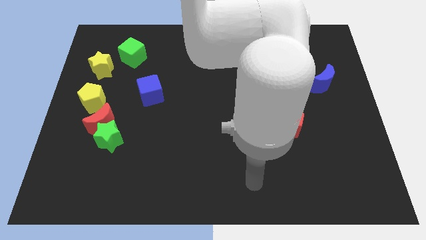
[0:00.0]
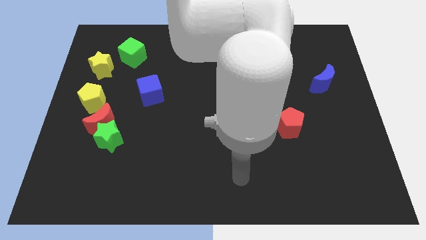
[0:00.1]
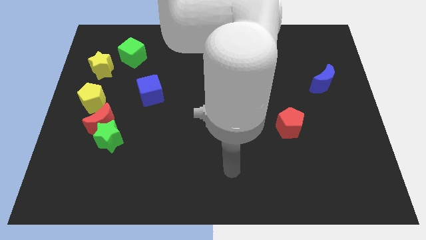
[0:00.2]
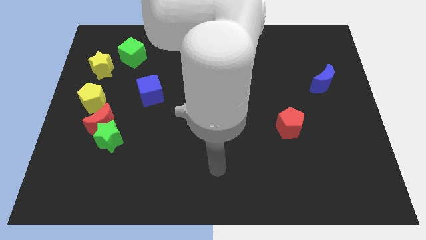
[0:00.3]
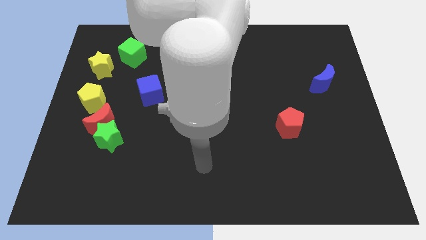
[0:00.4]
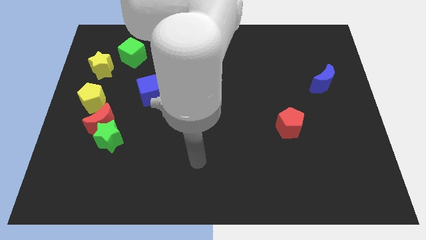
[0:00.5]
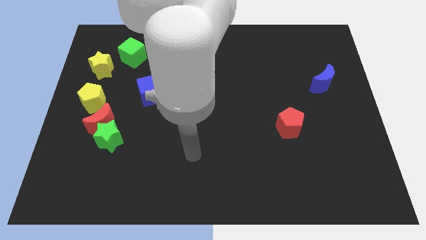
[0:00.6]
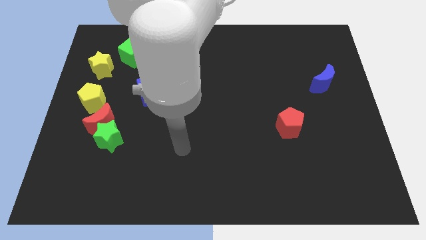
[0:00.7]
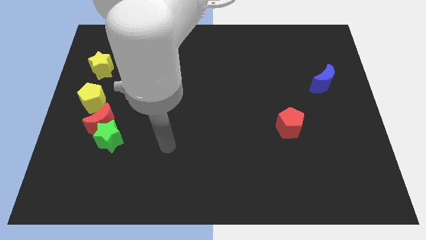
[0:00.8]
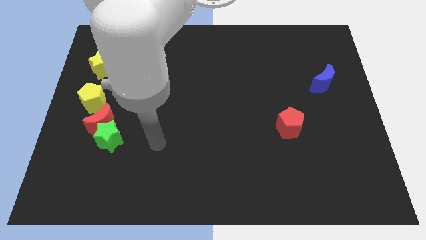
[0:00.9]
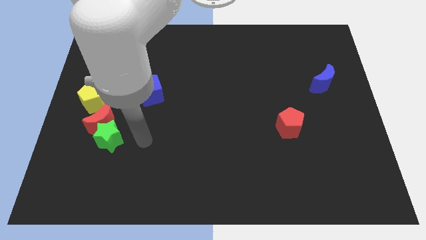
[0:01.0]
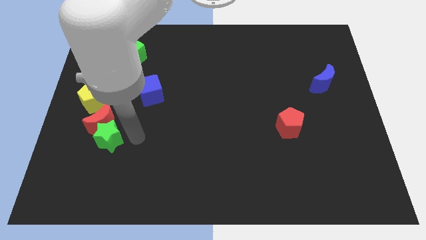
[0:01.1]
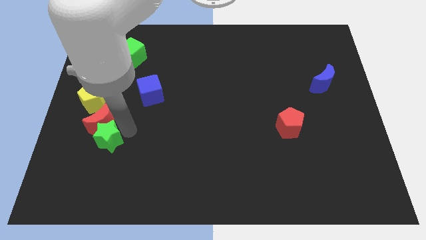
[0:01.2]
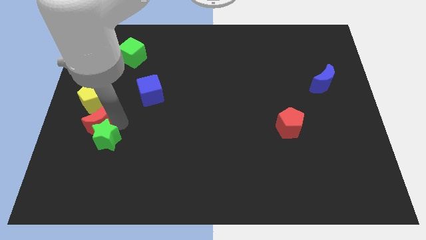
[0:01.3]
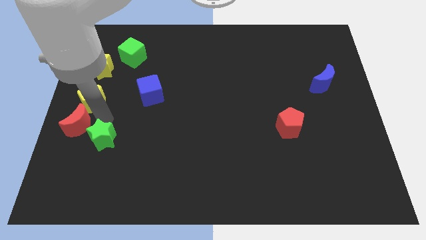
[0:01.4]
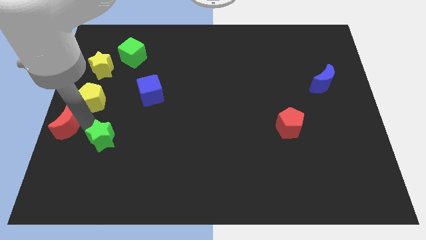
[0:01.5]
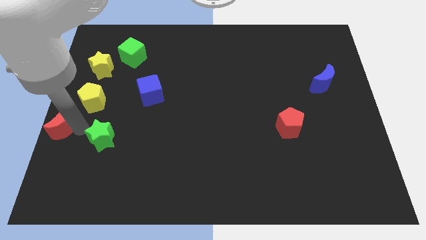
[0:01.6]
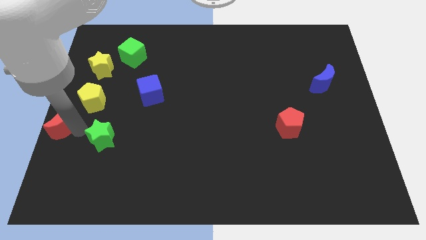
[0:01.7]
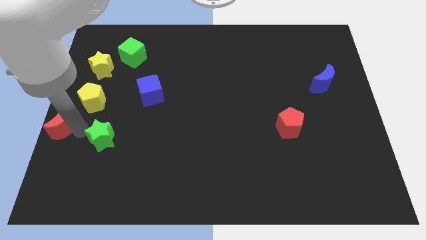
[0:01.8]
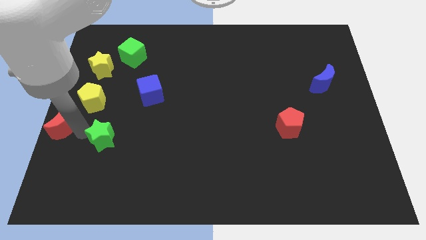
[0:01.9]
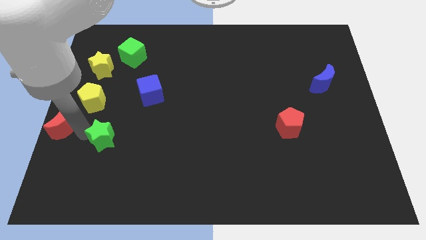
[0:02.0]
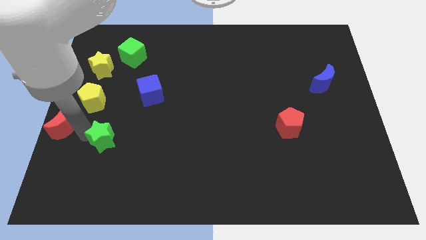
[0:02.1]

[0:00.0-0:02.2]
pull the green star apart from the red moon

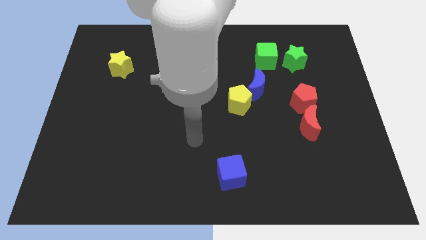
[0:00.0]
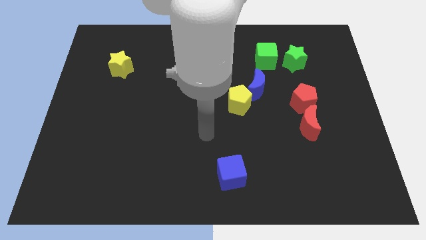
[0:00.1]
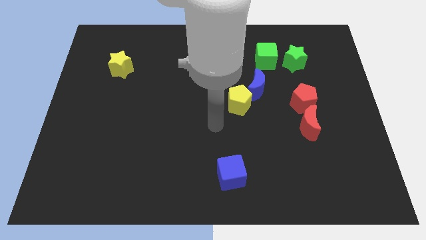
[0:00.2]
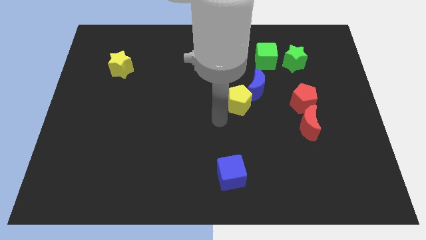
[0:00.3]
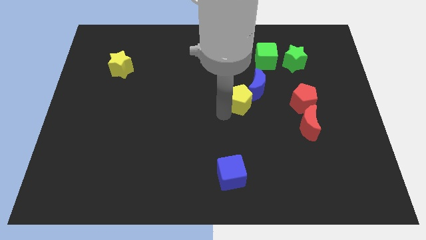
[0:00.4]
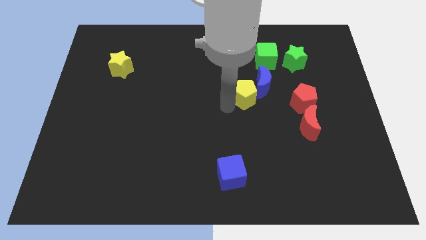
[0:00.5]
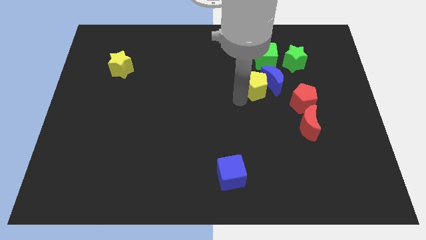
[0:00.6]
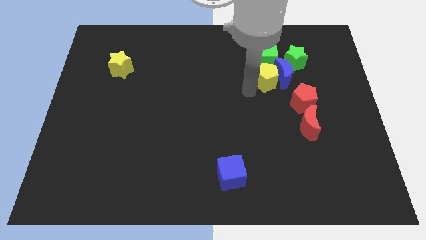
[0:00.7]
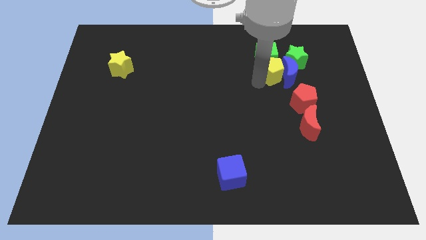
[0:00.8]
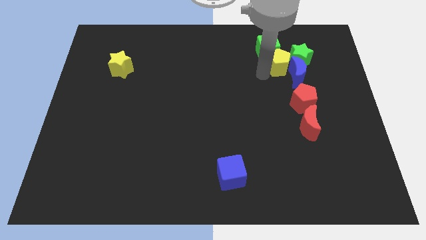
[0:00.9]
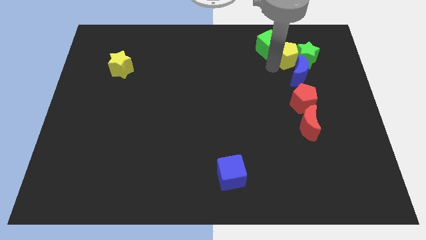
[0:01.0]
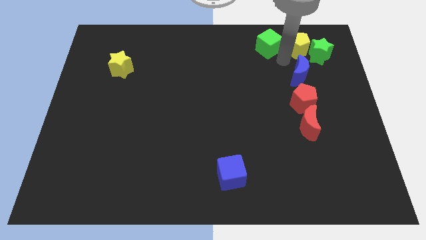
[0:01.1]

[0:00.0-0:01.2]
pull the blue moon apart from the yellow pentagon

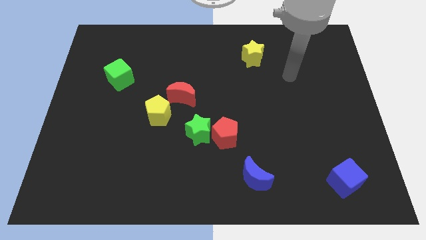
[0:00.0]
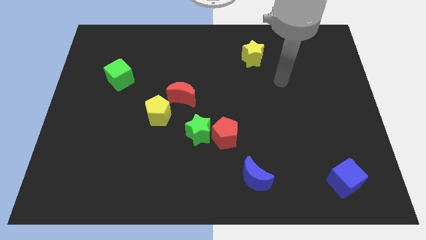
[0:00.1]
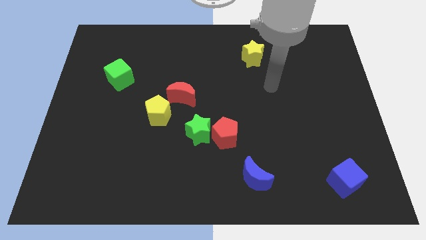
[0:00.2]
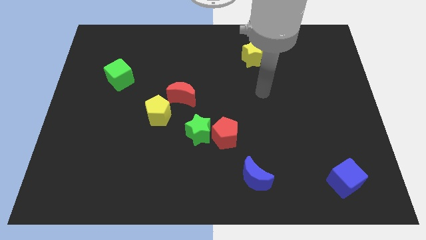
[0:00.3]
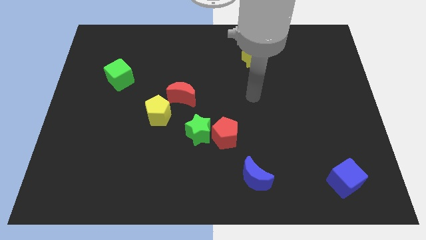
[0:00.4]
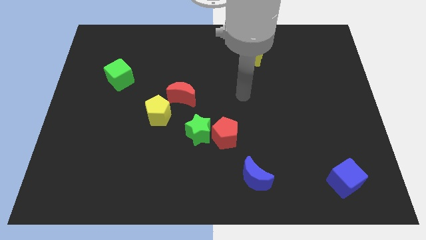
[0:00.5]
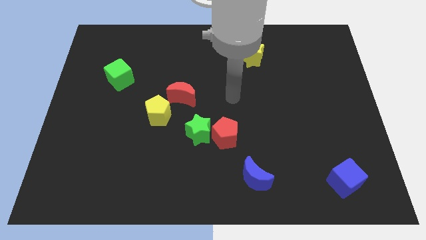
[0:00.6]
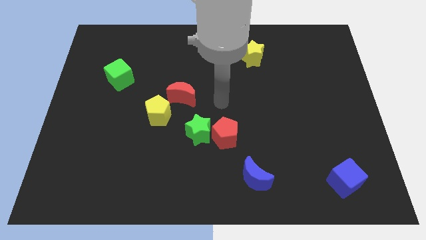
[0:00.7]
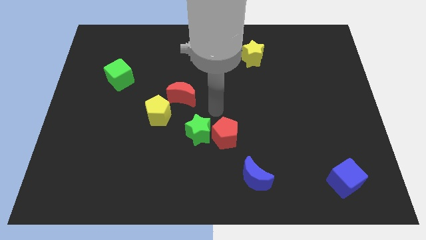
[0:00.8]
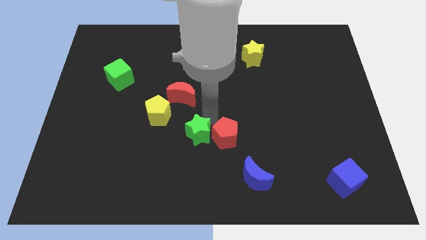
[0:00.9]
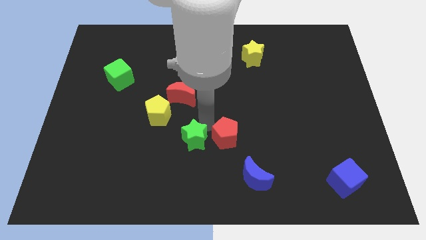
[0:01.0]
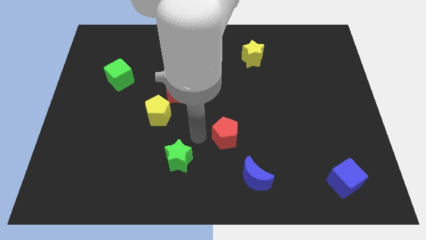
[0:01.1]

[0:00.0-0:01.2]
separate the red pentagon from the green star

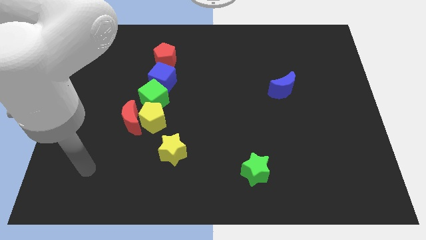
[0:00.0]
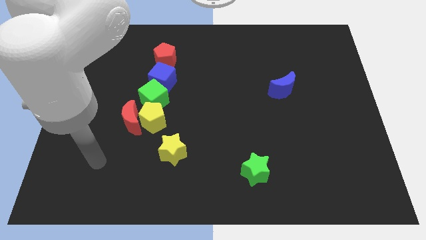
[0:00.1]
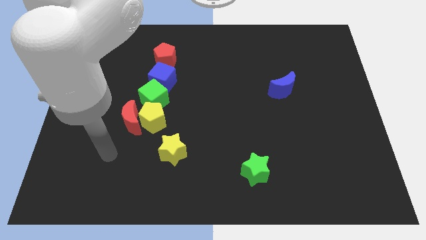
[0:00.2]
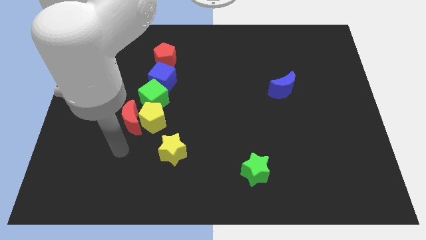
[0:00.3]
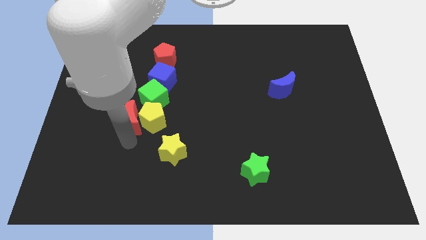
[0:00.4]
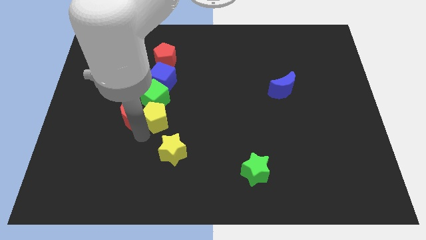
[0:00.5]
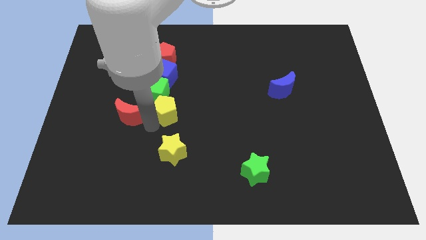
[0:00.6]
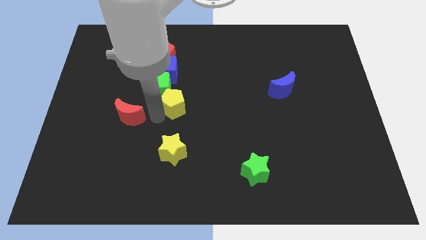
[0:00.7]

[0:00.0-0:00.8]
move the red moon away from the yellow pentagon and green cube

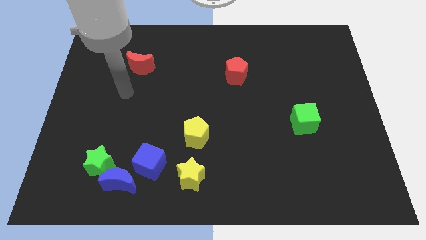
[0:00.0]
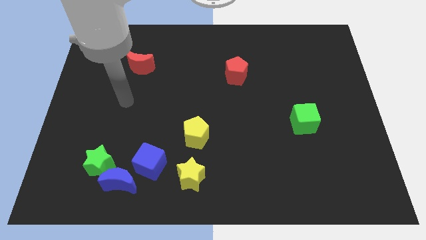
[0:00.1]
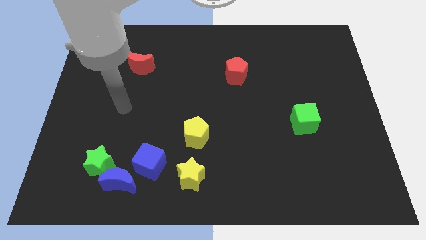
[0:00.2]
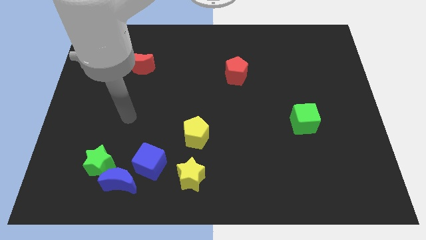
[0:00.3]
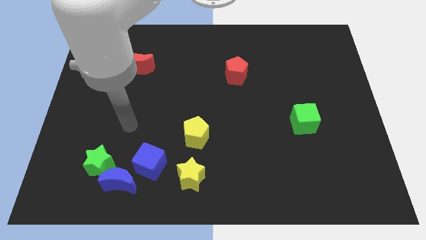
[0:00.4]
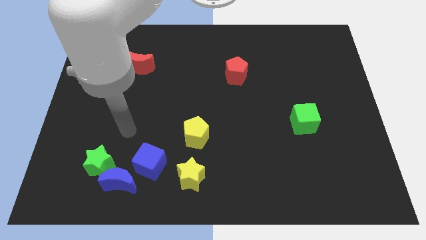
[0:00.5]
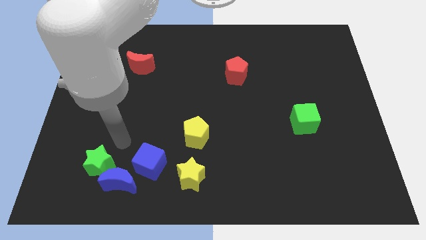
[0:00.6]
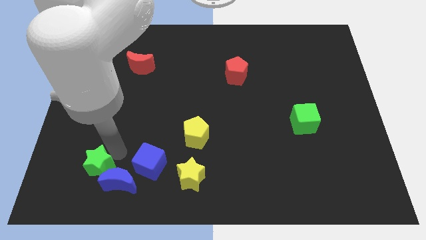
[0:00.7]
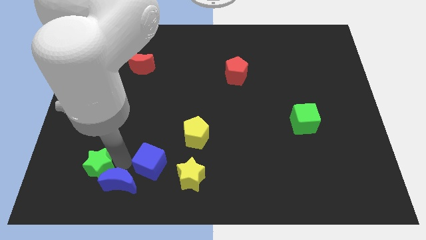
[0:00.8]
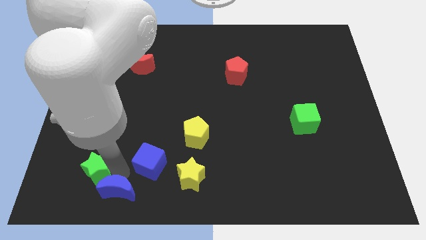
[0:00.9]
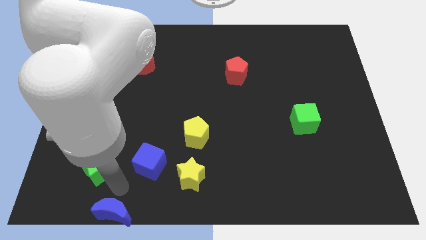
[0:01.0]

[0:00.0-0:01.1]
move the green star away from the blue moon

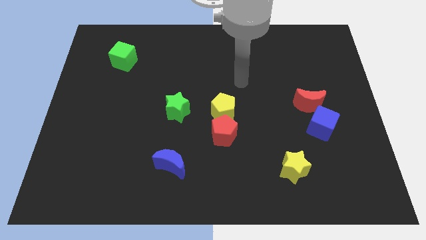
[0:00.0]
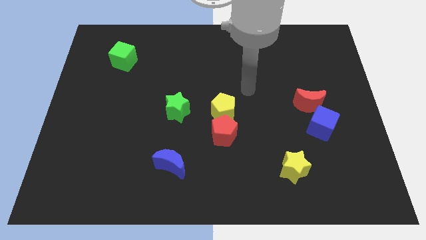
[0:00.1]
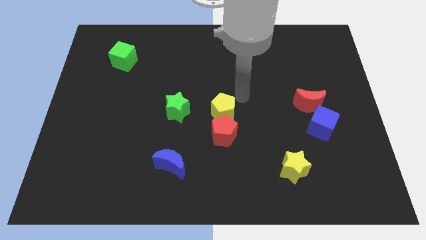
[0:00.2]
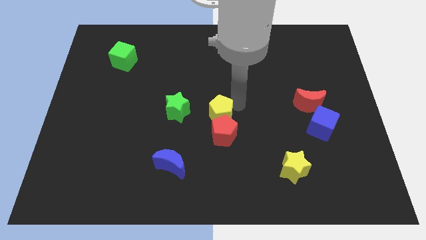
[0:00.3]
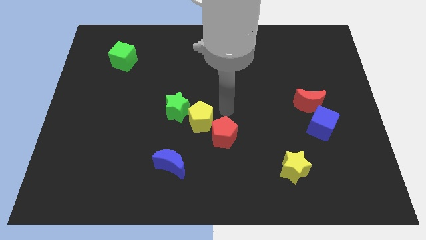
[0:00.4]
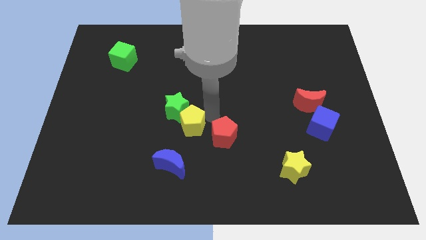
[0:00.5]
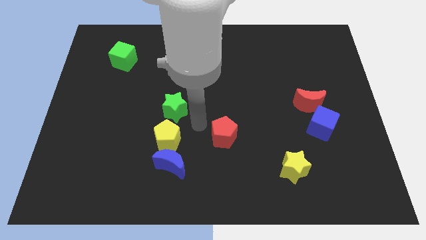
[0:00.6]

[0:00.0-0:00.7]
move the red pentagon away from the yellow pentagon

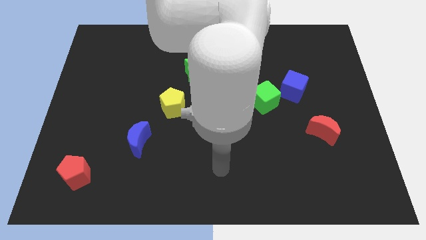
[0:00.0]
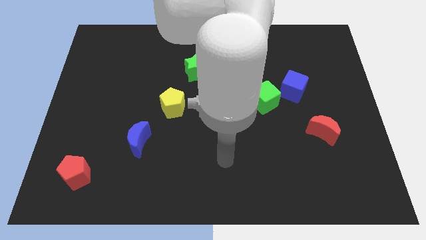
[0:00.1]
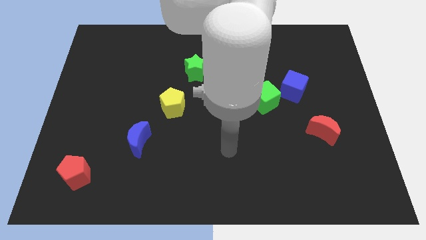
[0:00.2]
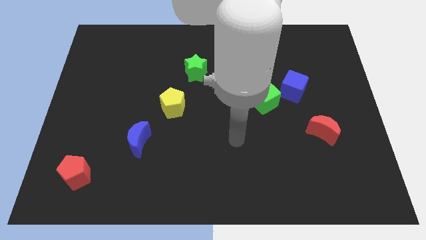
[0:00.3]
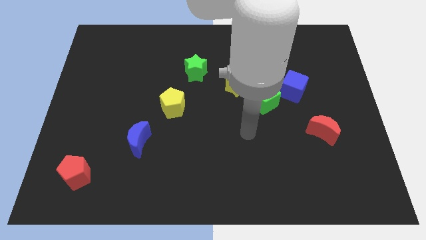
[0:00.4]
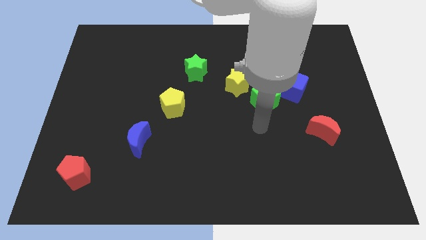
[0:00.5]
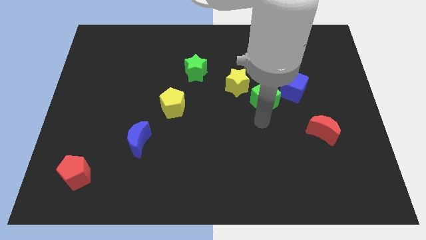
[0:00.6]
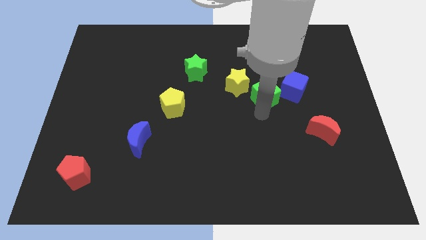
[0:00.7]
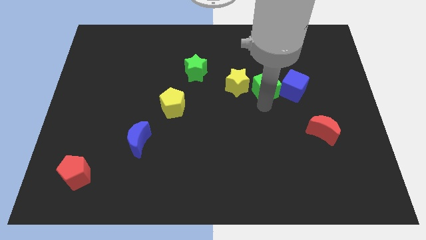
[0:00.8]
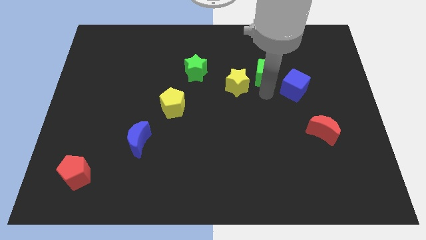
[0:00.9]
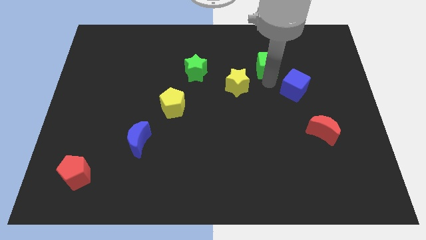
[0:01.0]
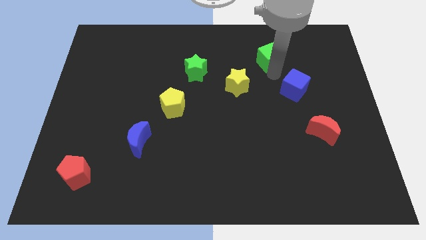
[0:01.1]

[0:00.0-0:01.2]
move the blue cube away from the green cube

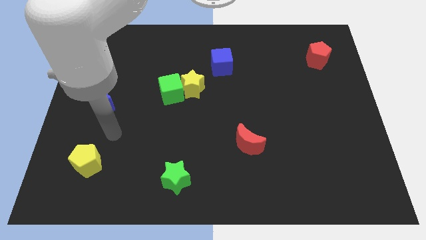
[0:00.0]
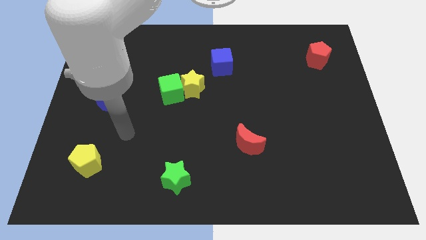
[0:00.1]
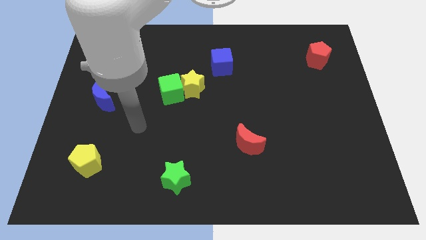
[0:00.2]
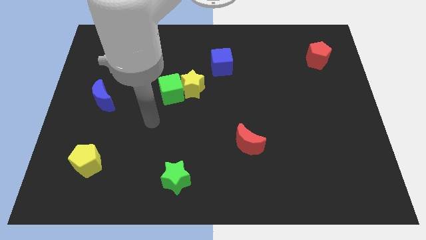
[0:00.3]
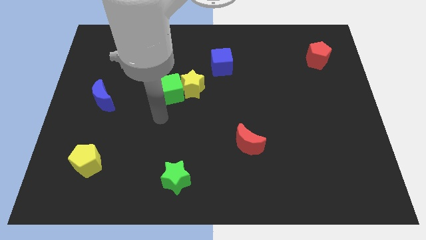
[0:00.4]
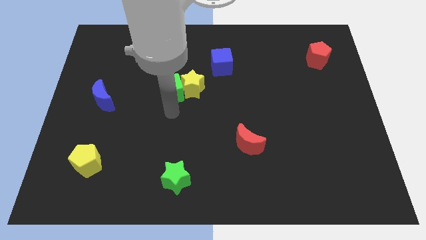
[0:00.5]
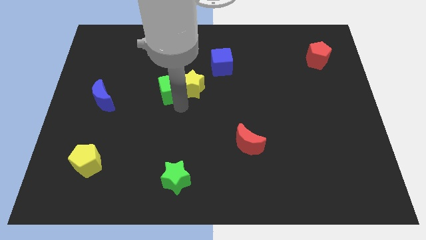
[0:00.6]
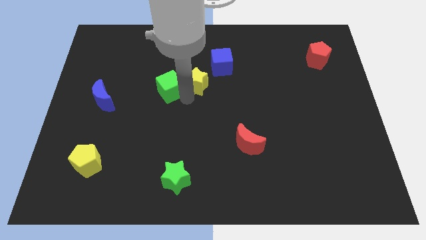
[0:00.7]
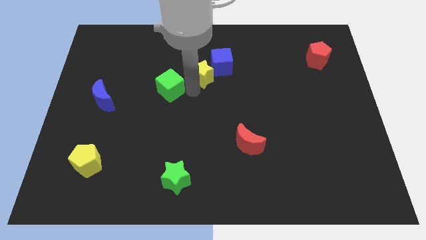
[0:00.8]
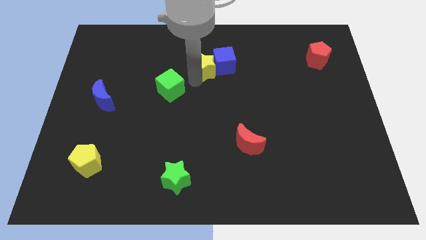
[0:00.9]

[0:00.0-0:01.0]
pull the green cube apart from the yellow star
